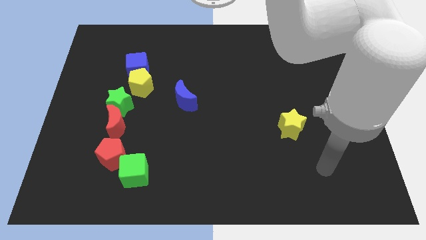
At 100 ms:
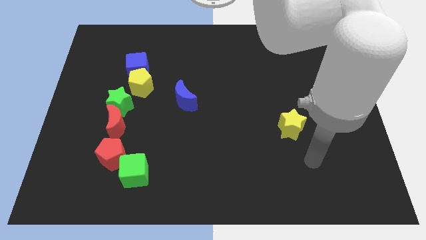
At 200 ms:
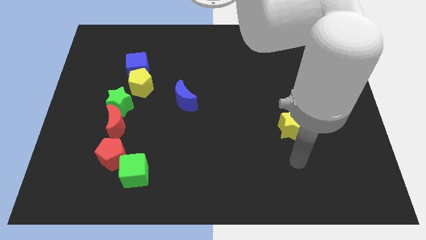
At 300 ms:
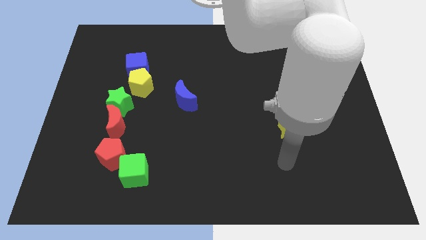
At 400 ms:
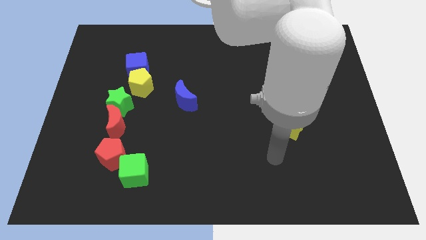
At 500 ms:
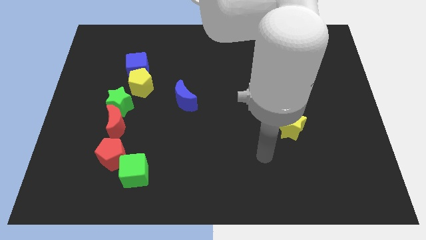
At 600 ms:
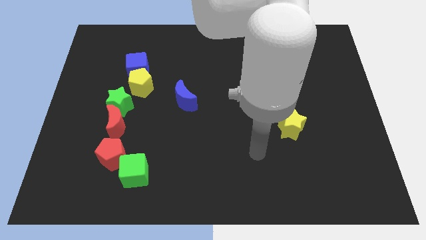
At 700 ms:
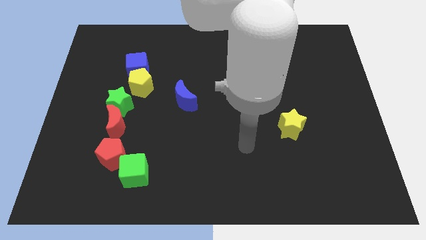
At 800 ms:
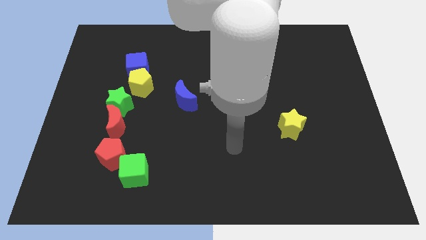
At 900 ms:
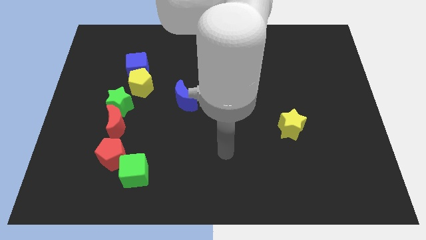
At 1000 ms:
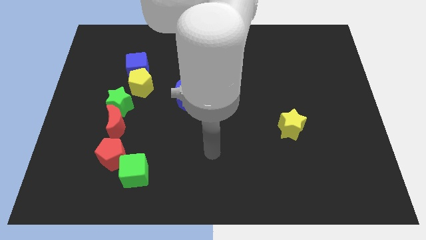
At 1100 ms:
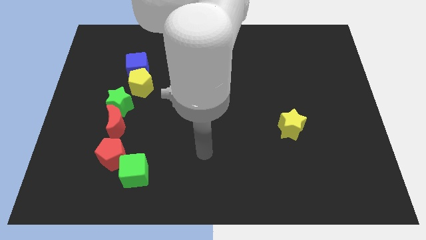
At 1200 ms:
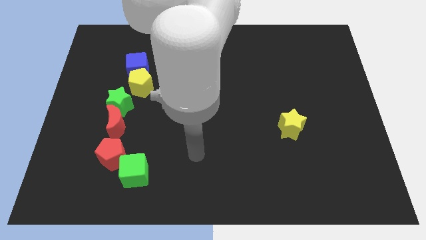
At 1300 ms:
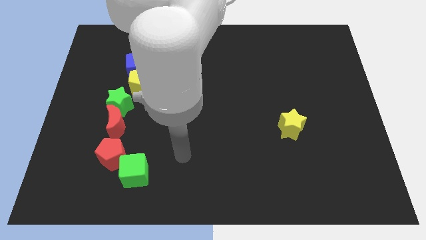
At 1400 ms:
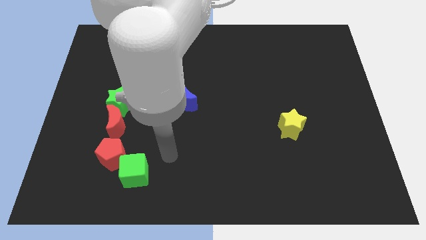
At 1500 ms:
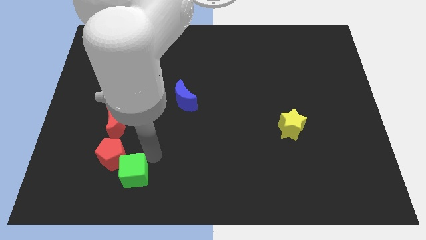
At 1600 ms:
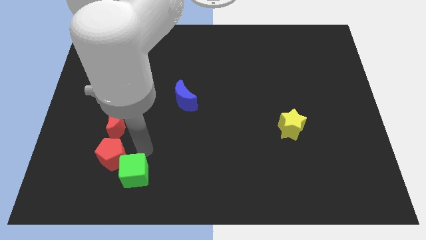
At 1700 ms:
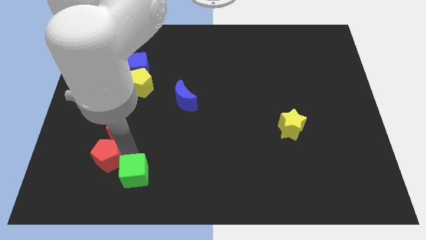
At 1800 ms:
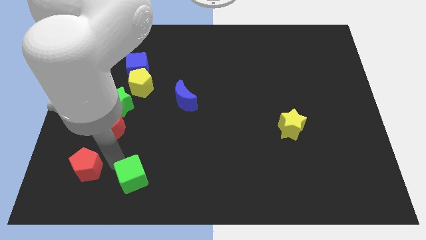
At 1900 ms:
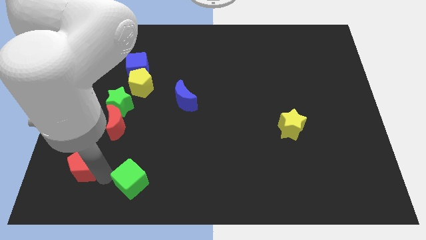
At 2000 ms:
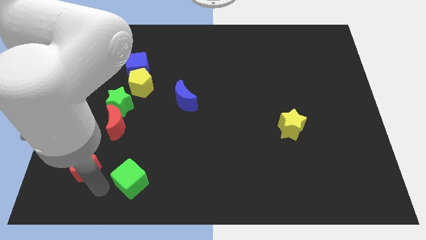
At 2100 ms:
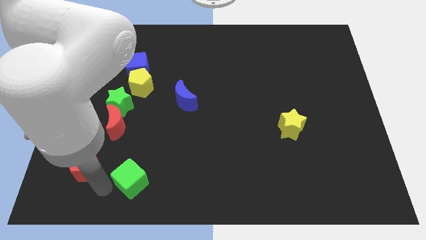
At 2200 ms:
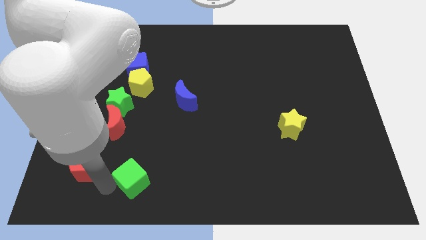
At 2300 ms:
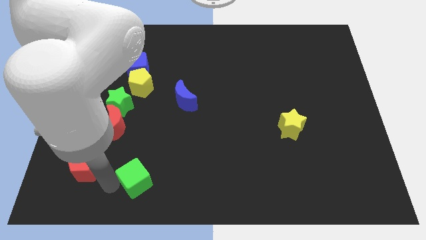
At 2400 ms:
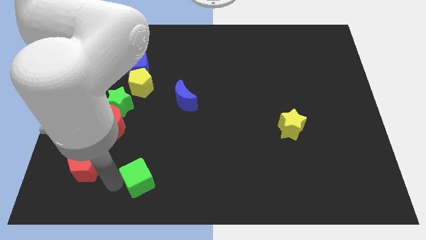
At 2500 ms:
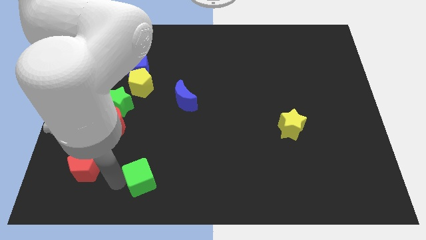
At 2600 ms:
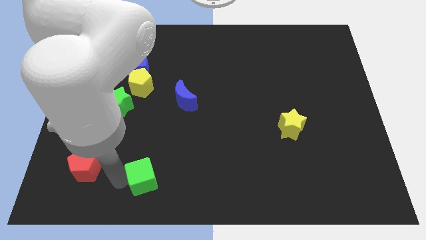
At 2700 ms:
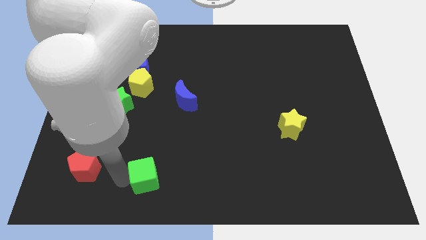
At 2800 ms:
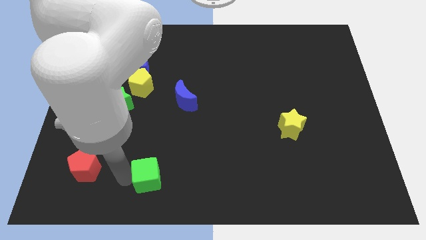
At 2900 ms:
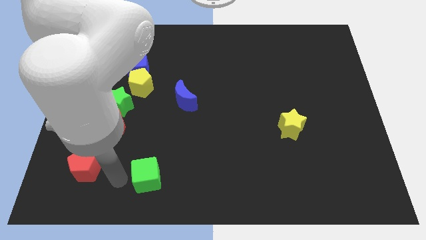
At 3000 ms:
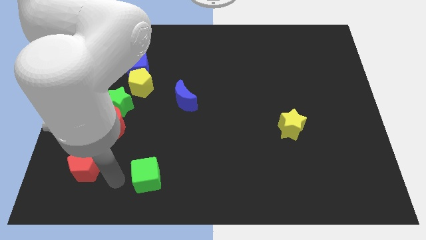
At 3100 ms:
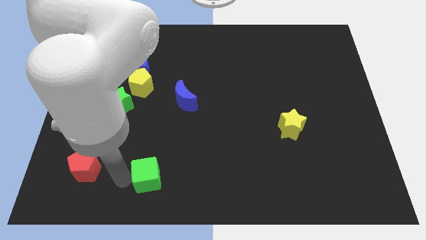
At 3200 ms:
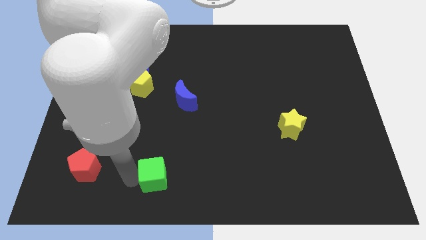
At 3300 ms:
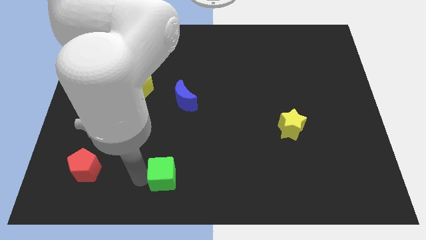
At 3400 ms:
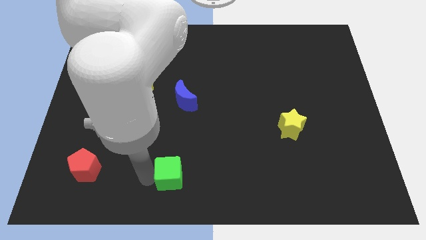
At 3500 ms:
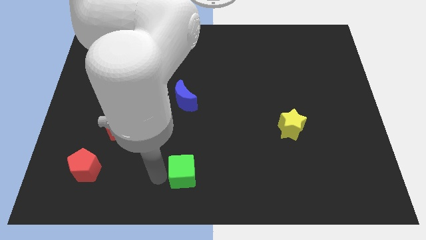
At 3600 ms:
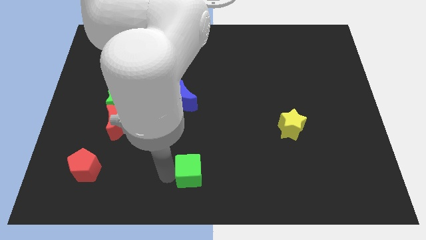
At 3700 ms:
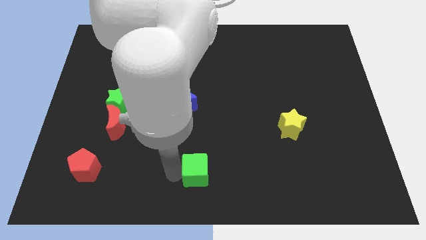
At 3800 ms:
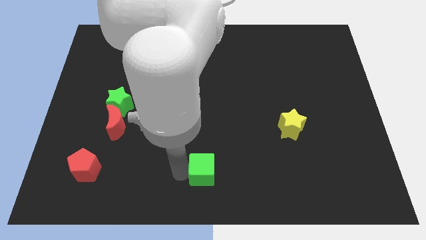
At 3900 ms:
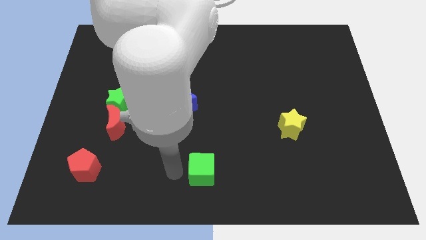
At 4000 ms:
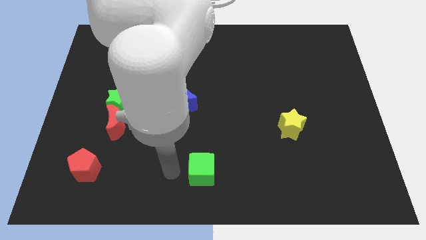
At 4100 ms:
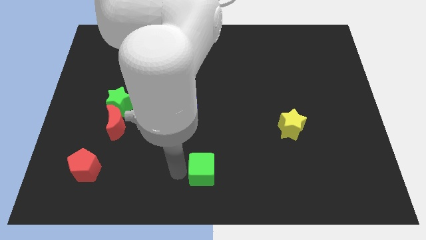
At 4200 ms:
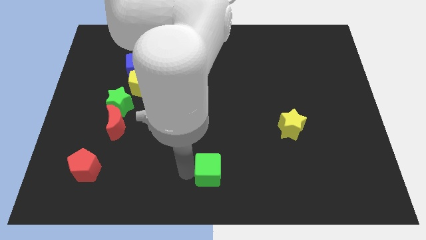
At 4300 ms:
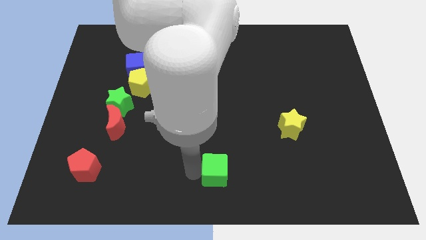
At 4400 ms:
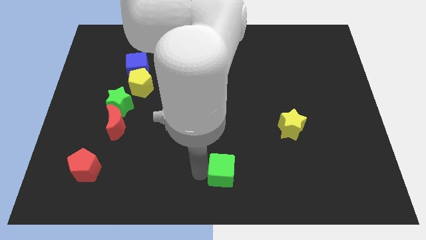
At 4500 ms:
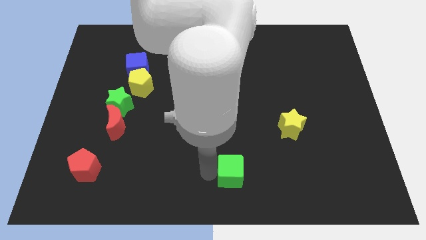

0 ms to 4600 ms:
push the green cube to the right

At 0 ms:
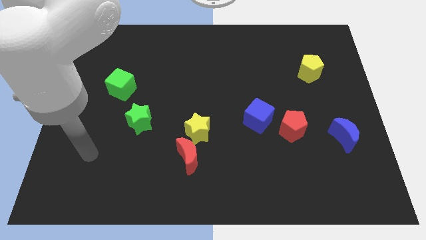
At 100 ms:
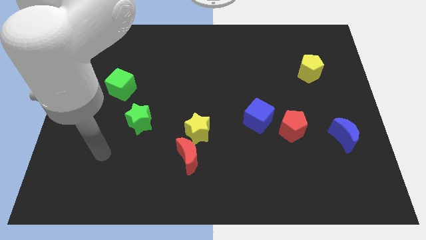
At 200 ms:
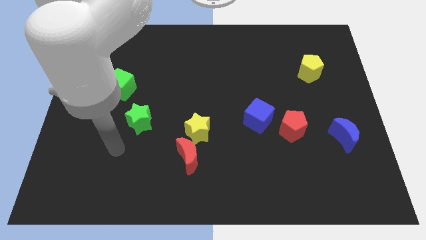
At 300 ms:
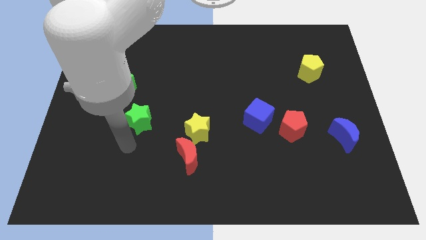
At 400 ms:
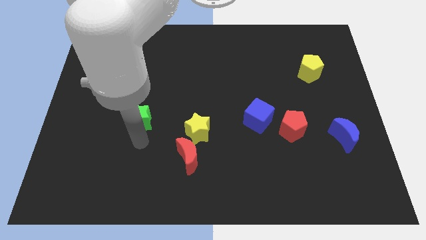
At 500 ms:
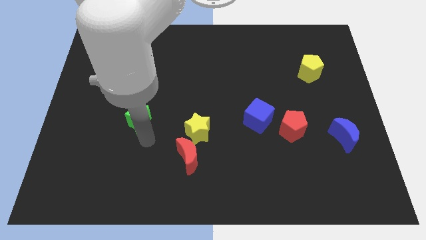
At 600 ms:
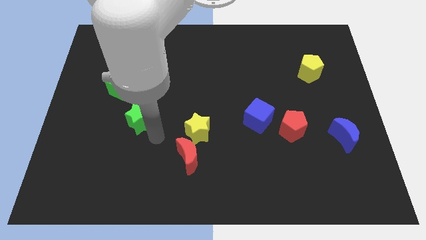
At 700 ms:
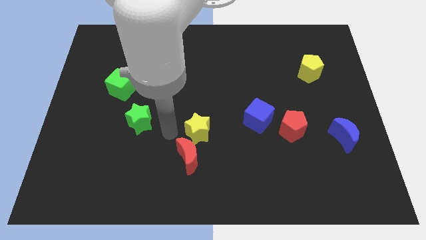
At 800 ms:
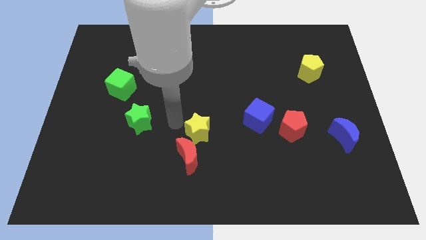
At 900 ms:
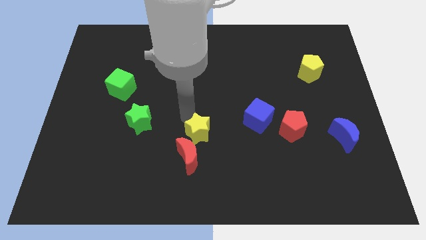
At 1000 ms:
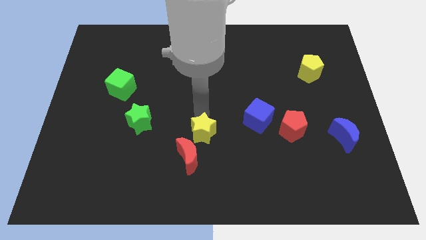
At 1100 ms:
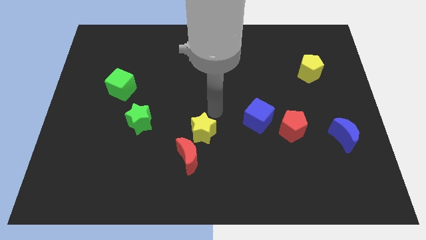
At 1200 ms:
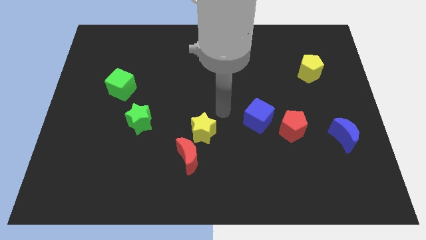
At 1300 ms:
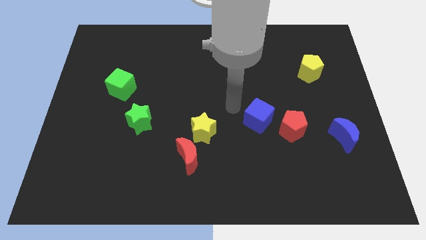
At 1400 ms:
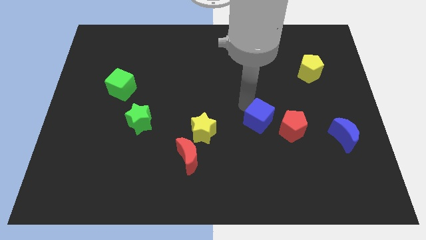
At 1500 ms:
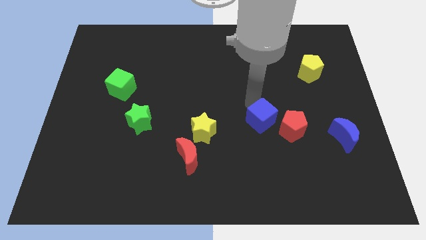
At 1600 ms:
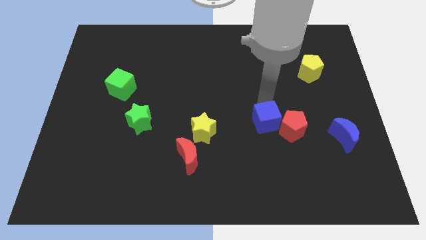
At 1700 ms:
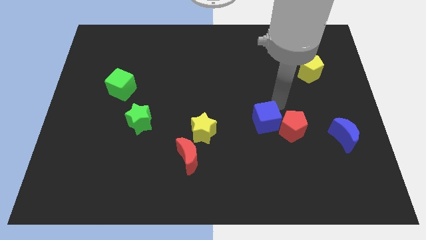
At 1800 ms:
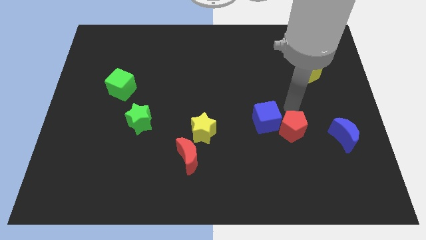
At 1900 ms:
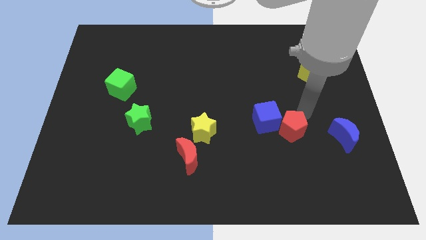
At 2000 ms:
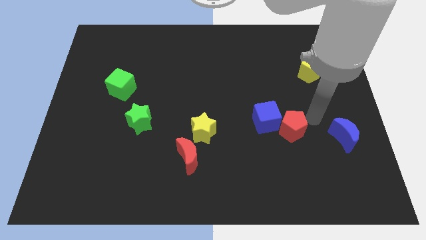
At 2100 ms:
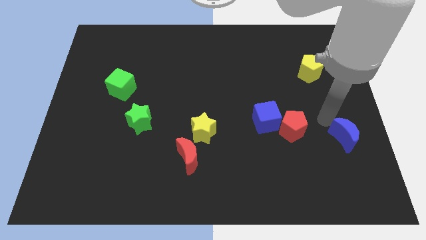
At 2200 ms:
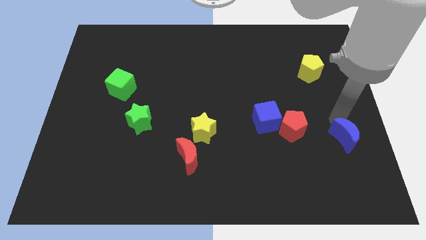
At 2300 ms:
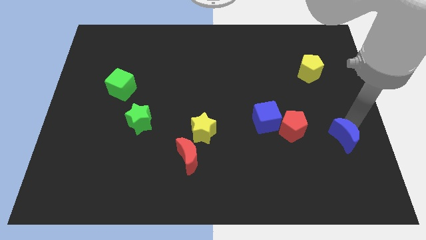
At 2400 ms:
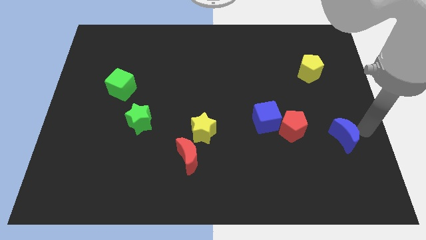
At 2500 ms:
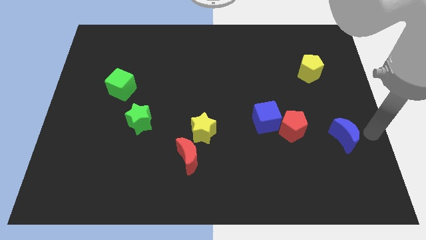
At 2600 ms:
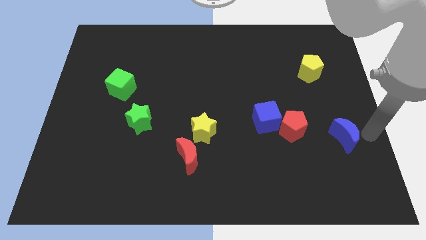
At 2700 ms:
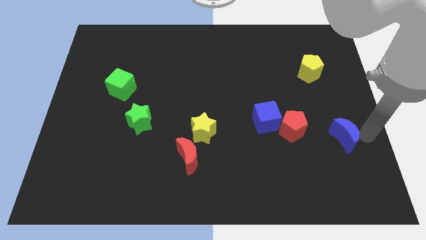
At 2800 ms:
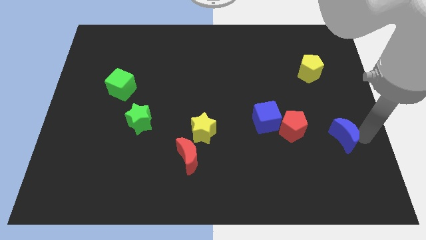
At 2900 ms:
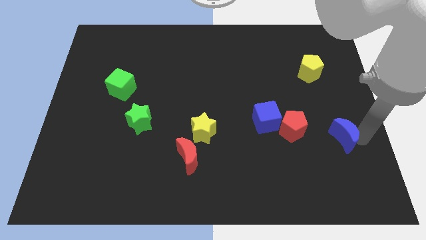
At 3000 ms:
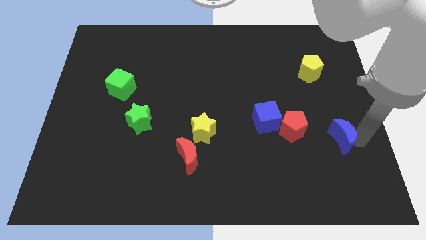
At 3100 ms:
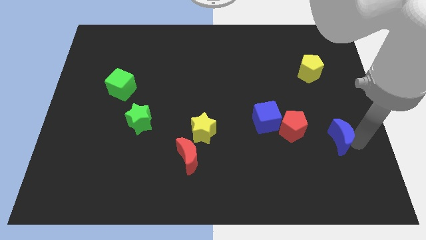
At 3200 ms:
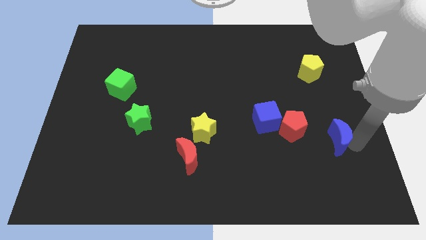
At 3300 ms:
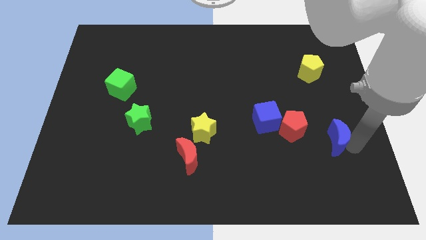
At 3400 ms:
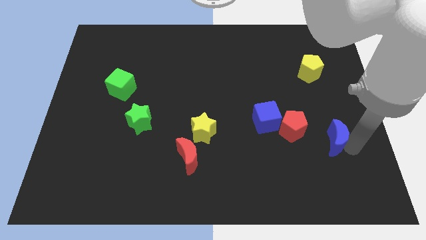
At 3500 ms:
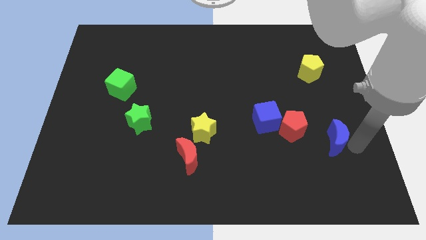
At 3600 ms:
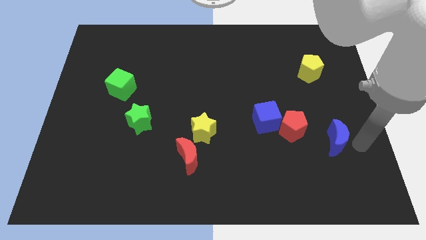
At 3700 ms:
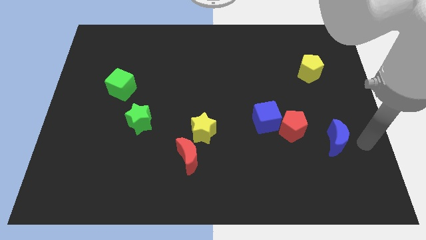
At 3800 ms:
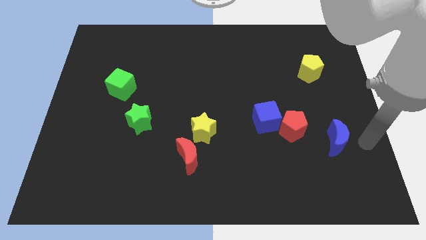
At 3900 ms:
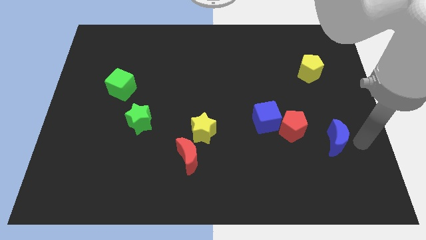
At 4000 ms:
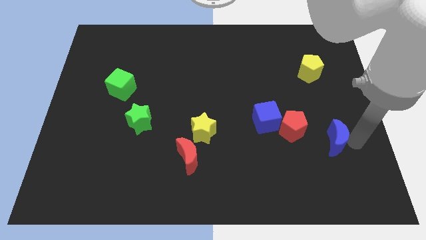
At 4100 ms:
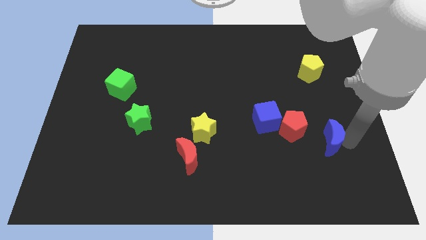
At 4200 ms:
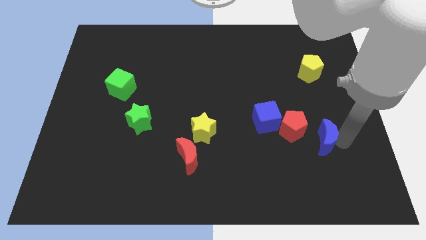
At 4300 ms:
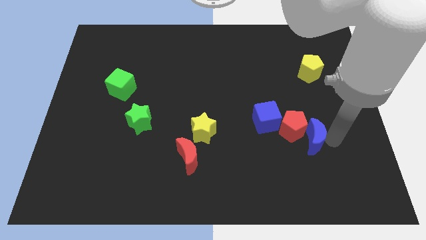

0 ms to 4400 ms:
slide the blue moon a little to the left
